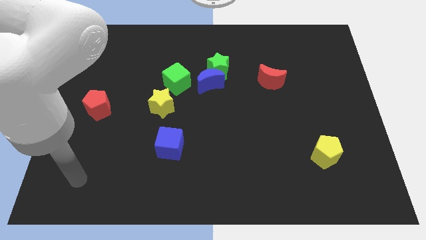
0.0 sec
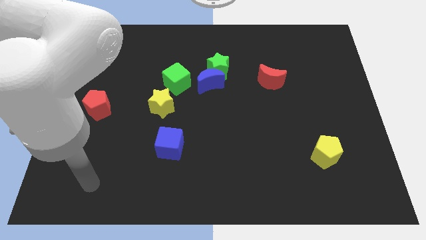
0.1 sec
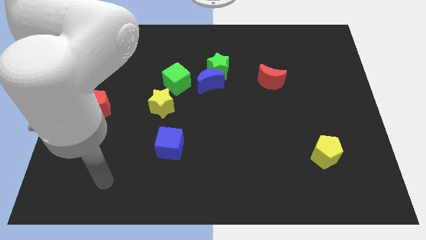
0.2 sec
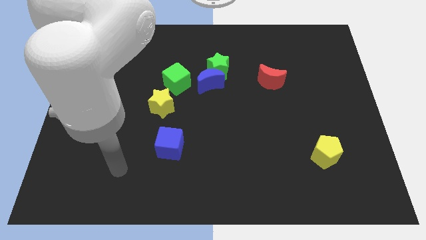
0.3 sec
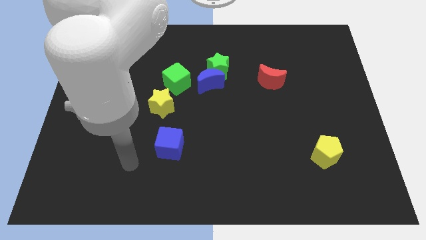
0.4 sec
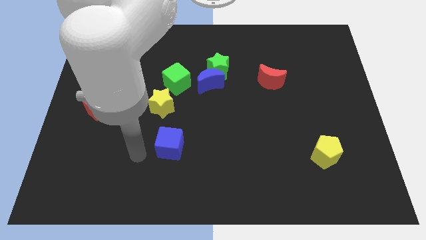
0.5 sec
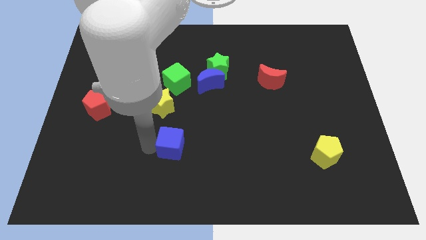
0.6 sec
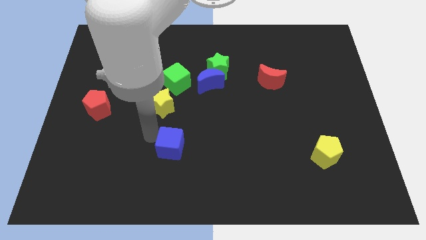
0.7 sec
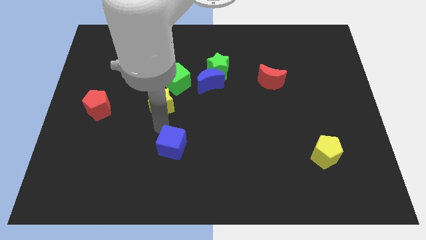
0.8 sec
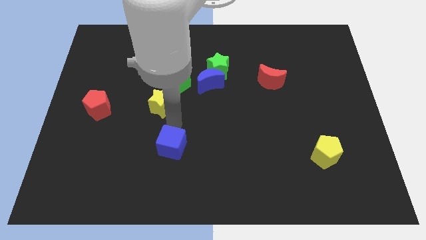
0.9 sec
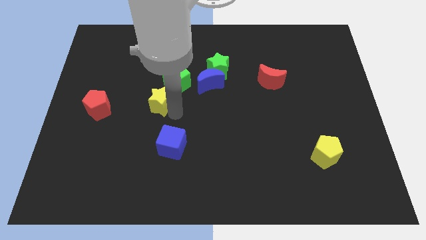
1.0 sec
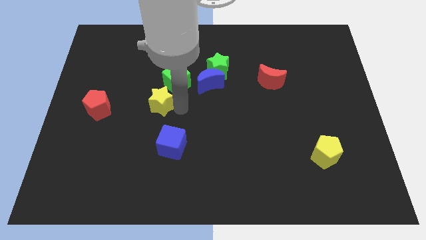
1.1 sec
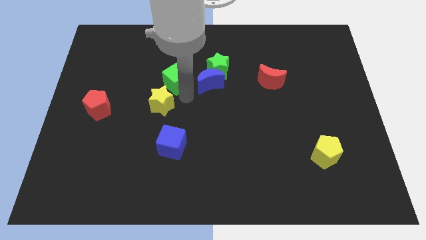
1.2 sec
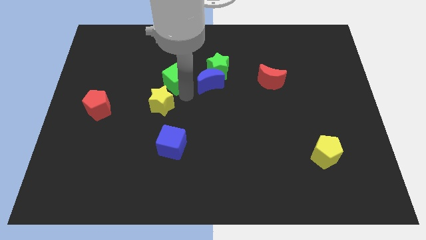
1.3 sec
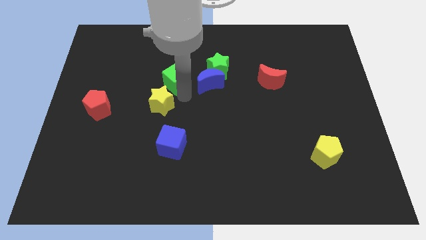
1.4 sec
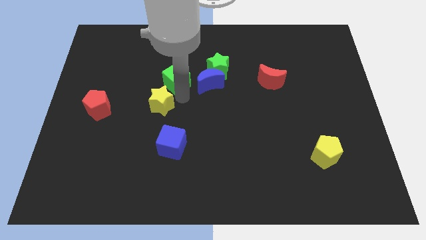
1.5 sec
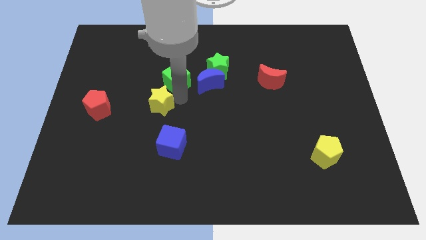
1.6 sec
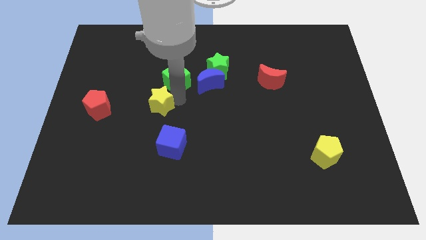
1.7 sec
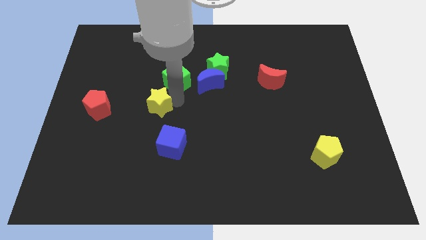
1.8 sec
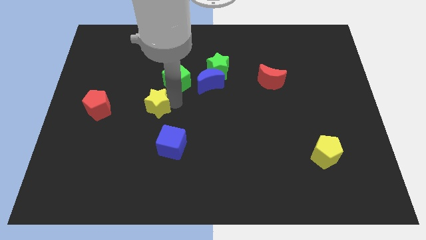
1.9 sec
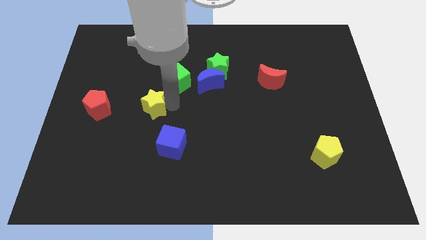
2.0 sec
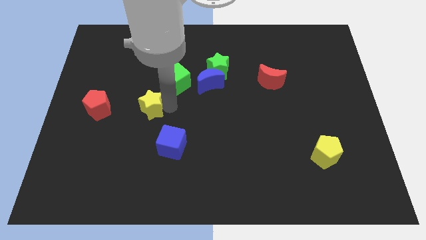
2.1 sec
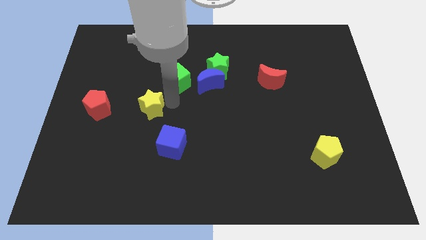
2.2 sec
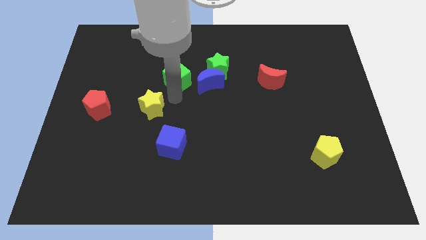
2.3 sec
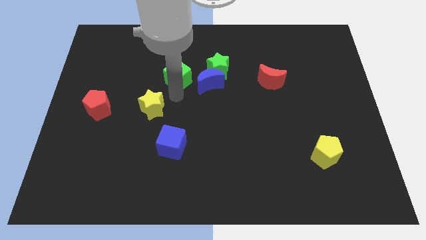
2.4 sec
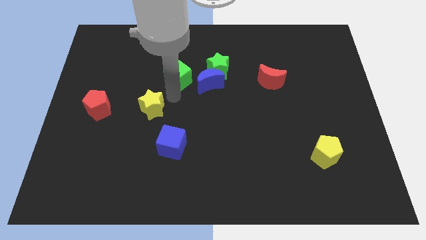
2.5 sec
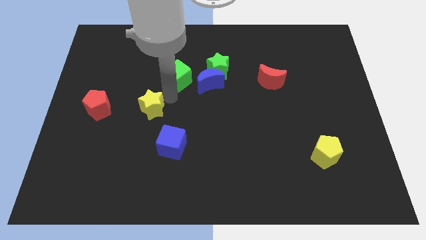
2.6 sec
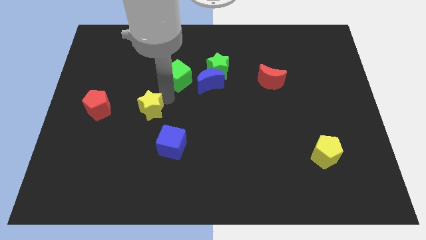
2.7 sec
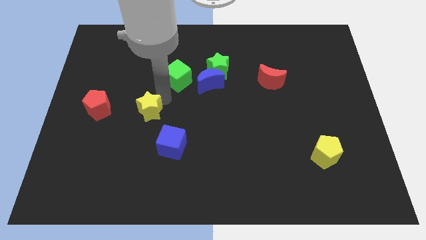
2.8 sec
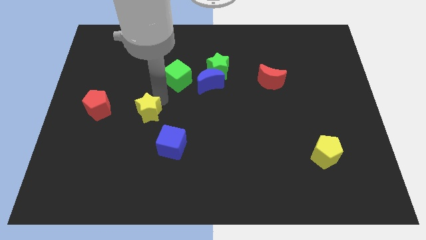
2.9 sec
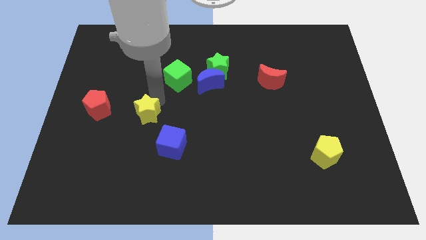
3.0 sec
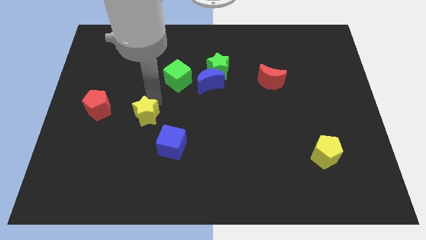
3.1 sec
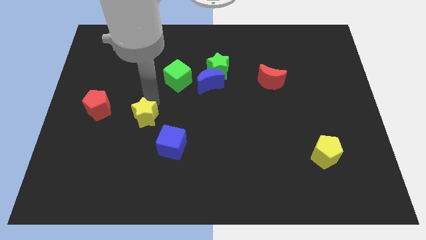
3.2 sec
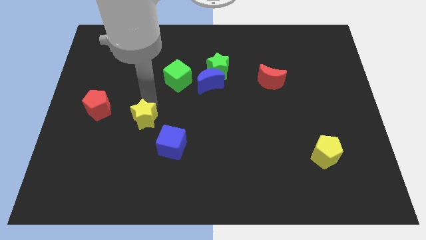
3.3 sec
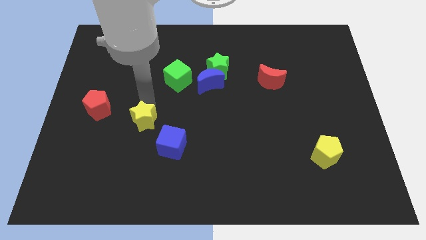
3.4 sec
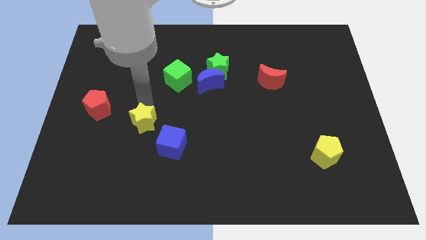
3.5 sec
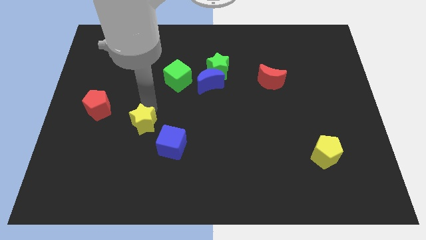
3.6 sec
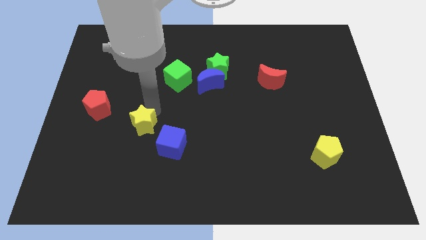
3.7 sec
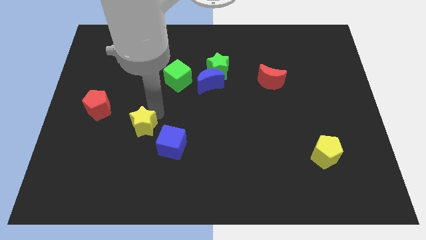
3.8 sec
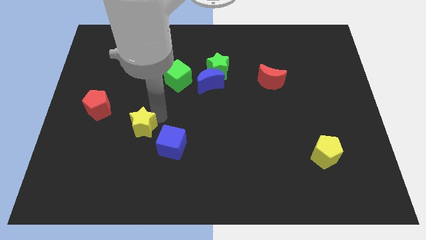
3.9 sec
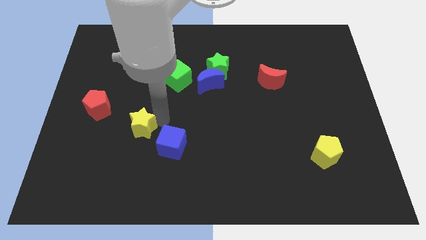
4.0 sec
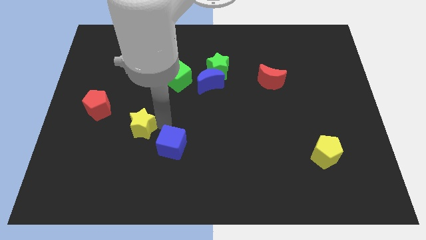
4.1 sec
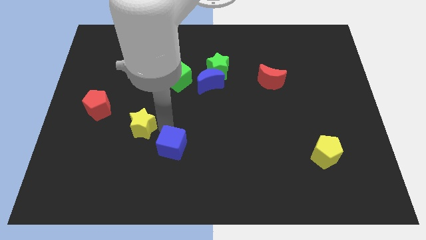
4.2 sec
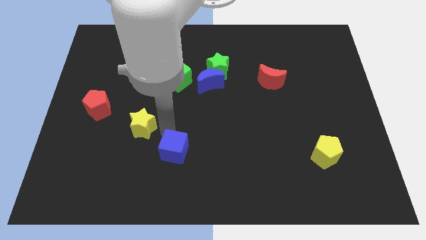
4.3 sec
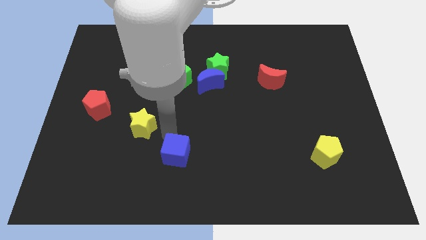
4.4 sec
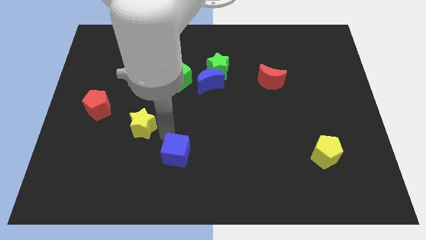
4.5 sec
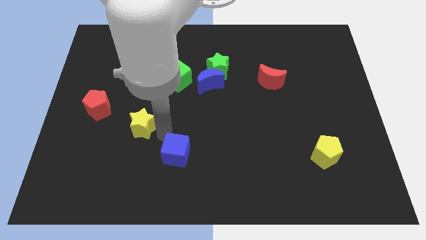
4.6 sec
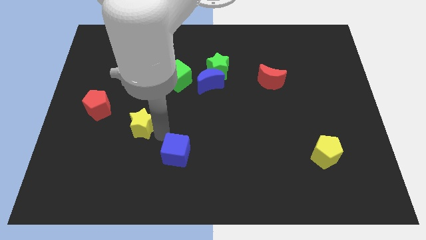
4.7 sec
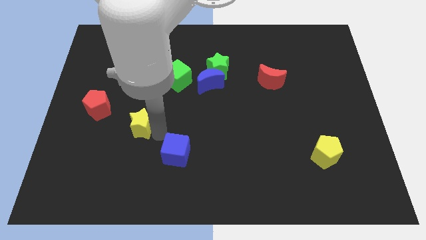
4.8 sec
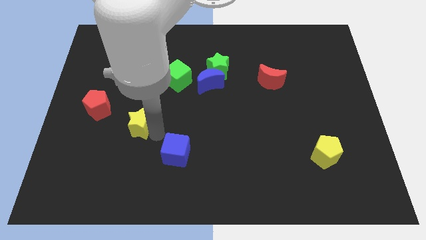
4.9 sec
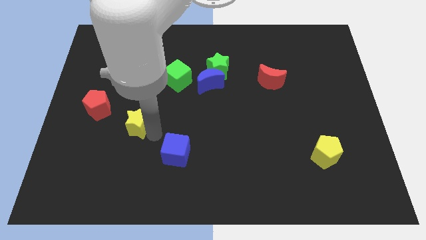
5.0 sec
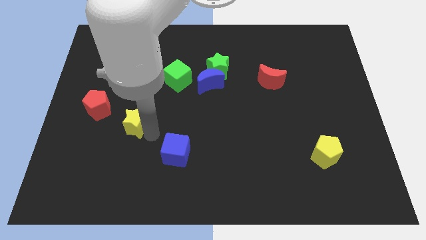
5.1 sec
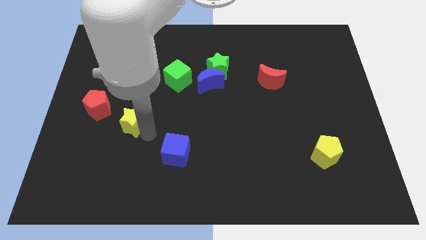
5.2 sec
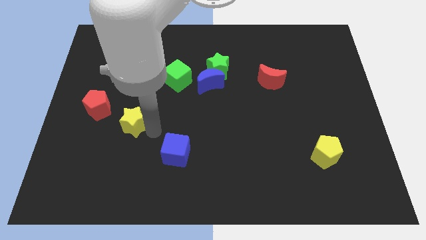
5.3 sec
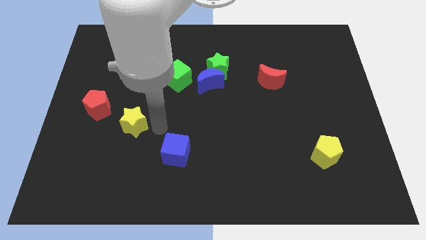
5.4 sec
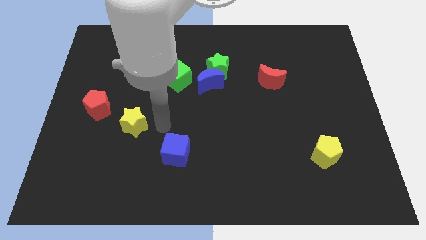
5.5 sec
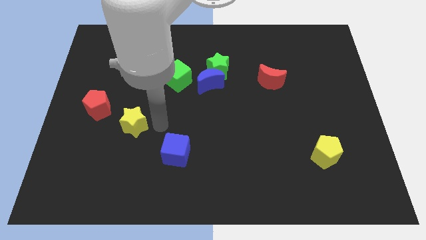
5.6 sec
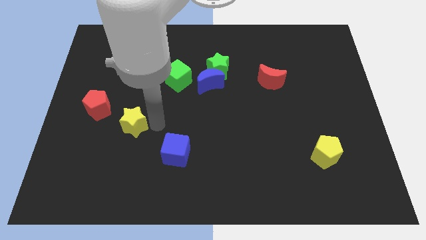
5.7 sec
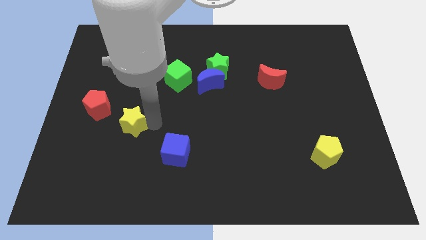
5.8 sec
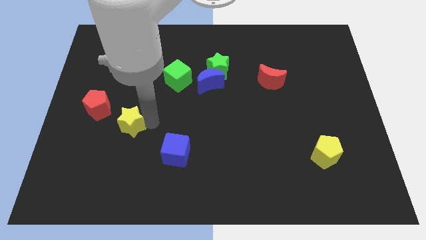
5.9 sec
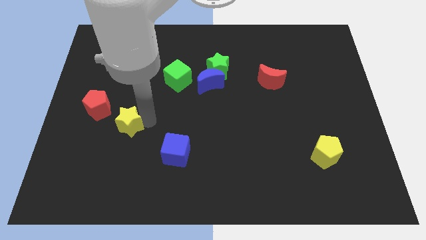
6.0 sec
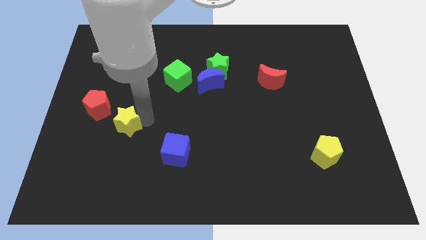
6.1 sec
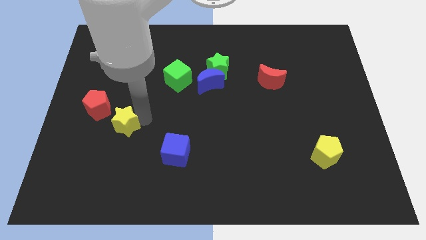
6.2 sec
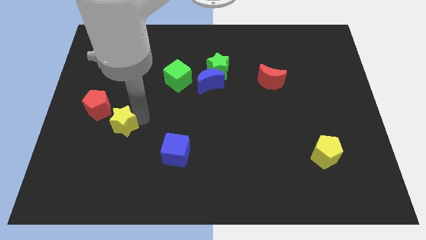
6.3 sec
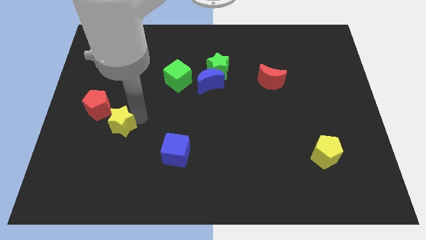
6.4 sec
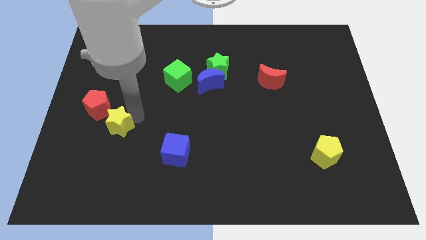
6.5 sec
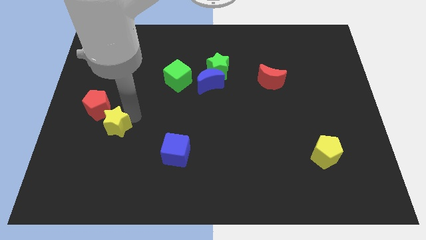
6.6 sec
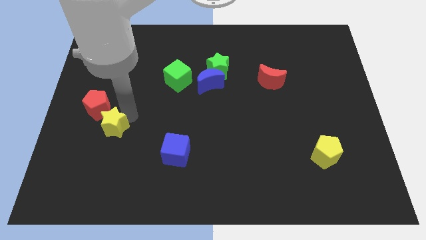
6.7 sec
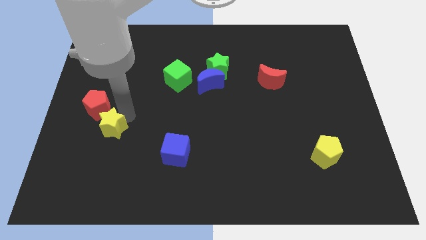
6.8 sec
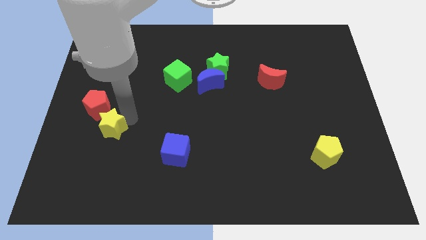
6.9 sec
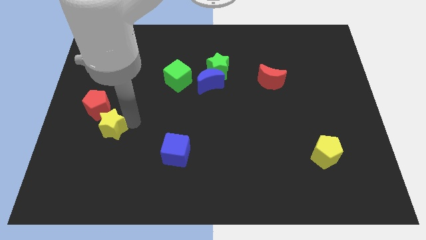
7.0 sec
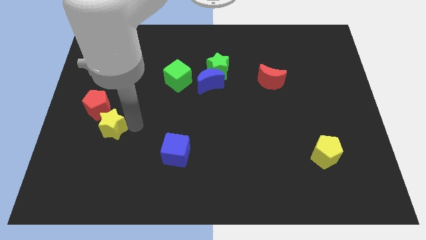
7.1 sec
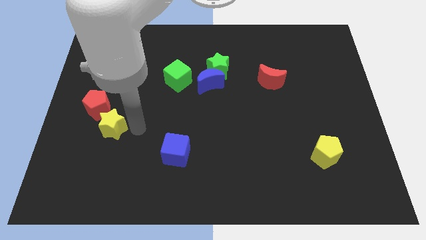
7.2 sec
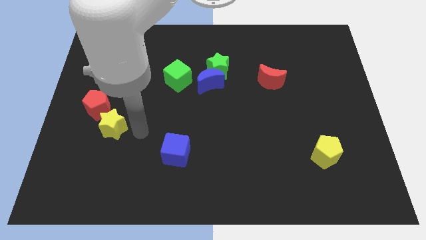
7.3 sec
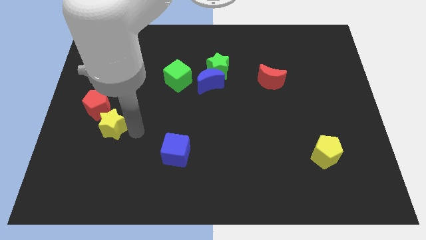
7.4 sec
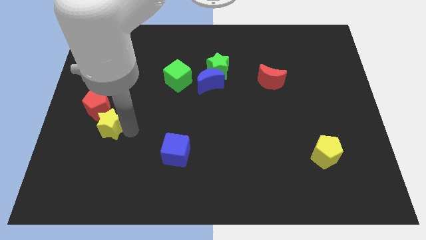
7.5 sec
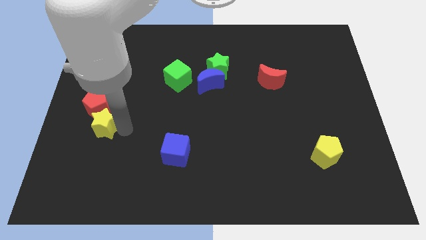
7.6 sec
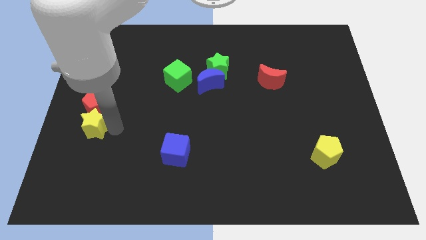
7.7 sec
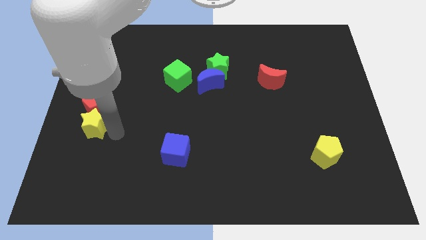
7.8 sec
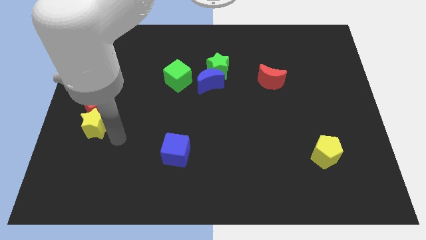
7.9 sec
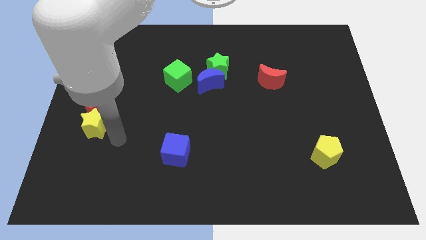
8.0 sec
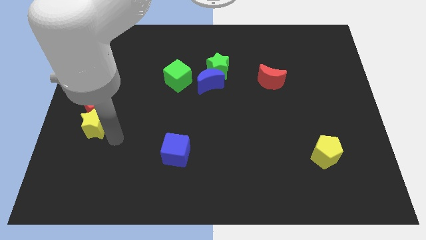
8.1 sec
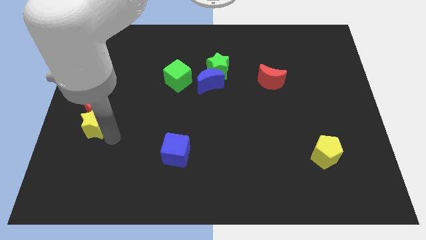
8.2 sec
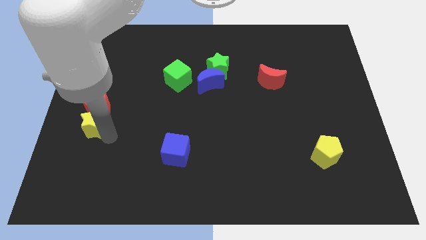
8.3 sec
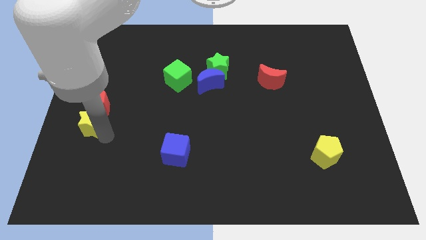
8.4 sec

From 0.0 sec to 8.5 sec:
push the yellow star to the left side
